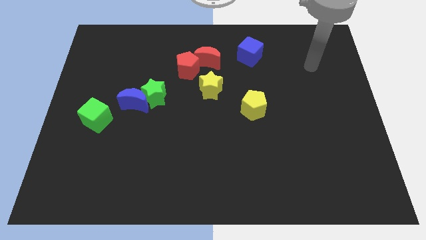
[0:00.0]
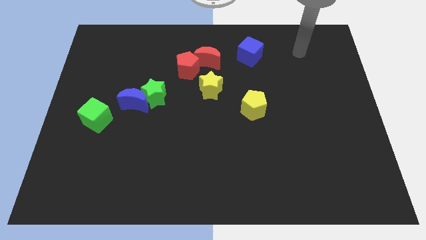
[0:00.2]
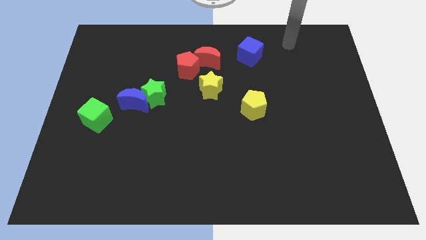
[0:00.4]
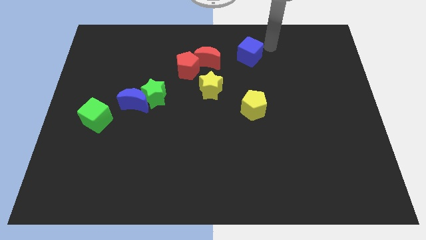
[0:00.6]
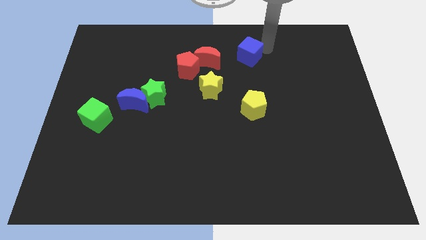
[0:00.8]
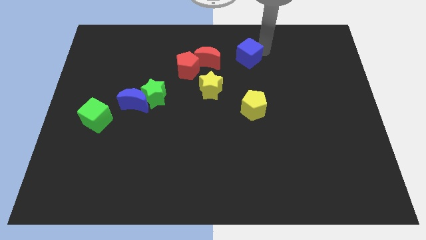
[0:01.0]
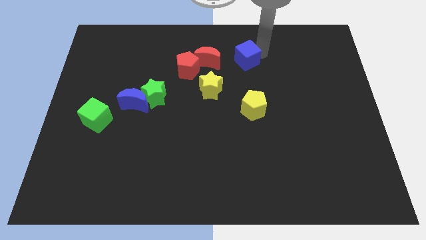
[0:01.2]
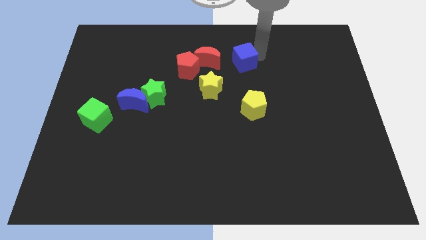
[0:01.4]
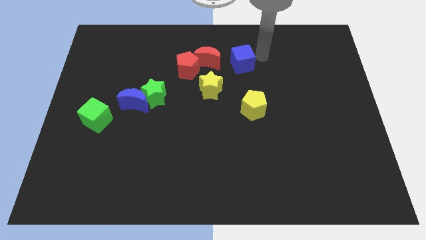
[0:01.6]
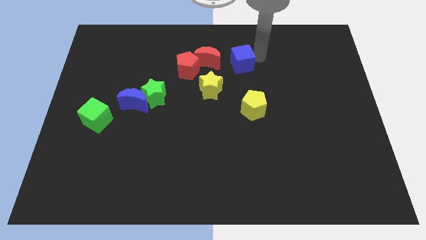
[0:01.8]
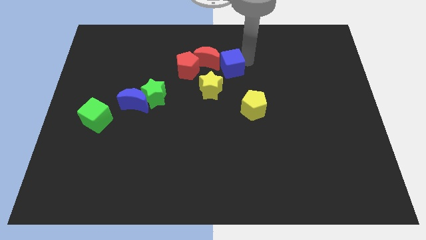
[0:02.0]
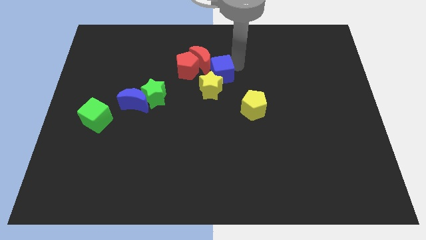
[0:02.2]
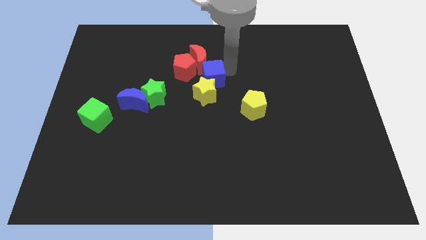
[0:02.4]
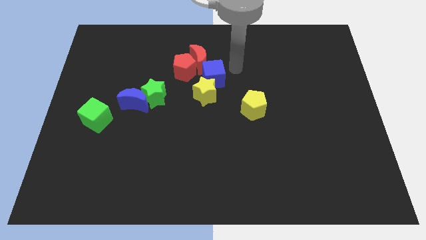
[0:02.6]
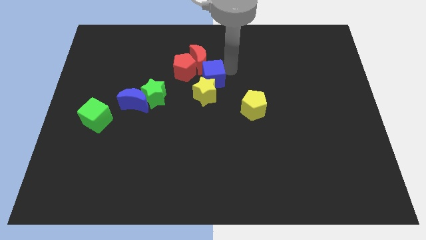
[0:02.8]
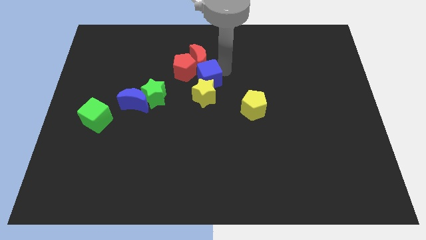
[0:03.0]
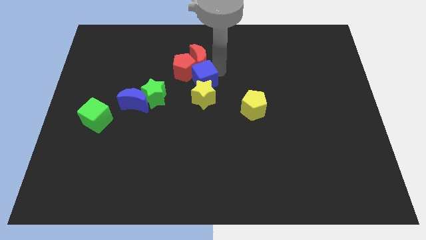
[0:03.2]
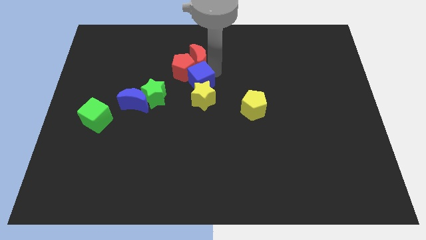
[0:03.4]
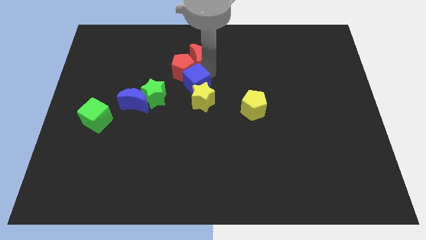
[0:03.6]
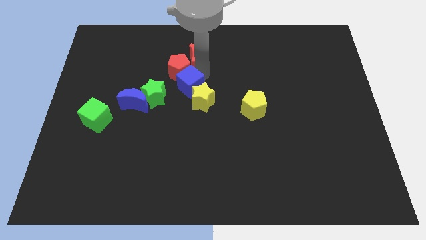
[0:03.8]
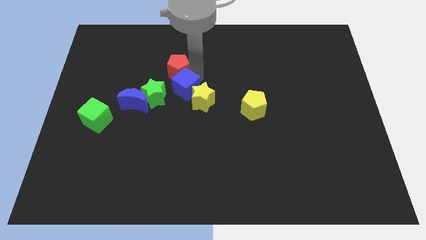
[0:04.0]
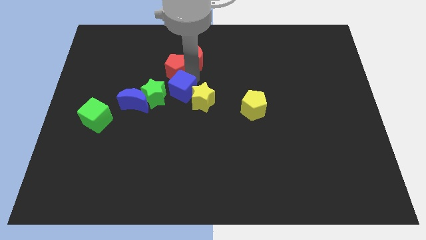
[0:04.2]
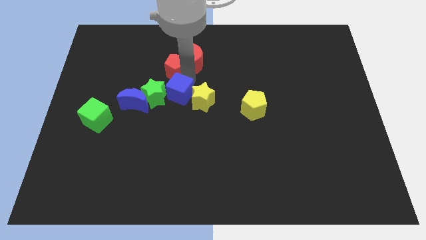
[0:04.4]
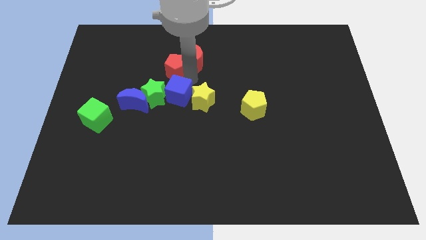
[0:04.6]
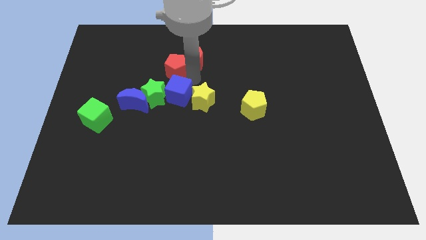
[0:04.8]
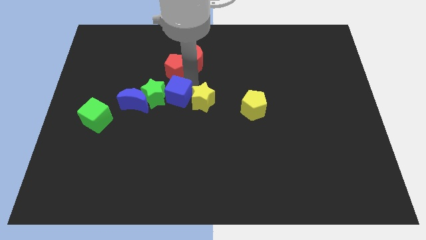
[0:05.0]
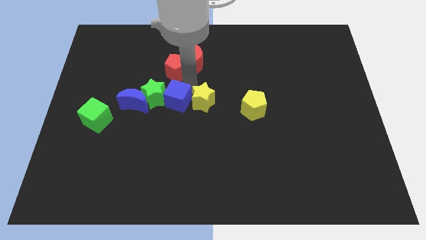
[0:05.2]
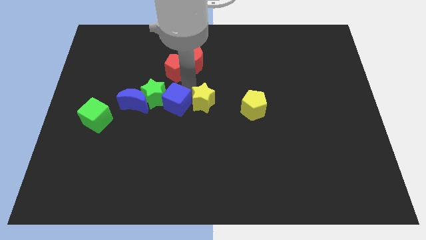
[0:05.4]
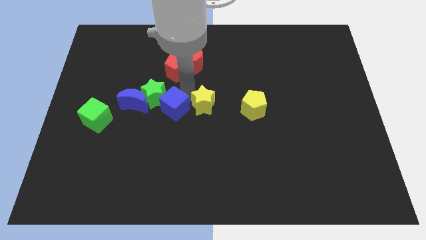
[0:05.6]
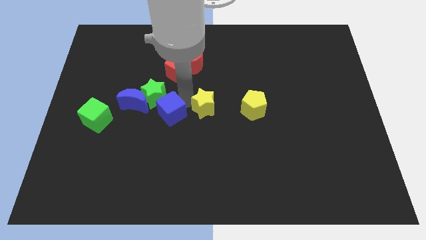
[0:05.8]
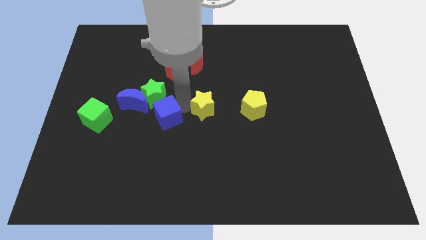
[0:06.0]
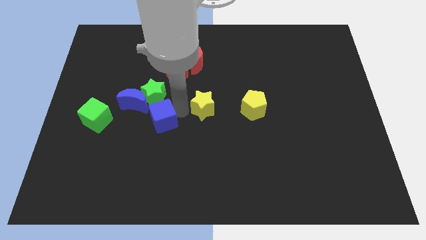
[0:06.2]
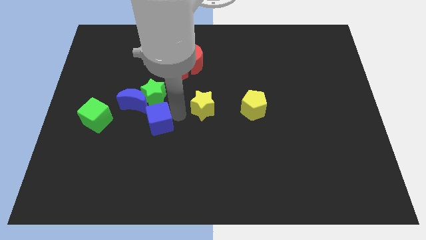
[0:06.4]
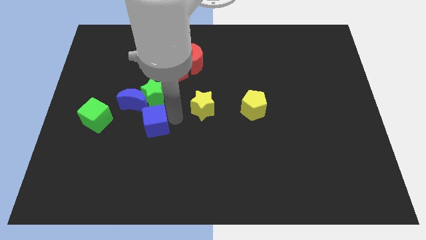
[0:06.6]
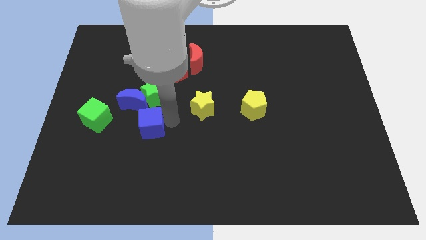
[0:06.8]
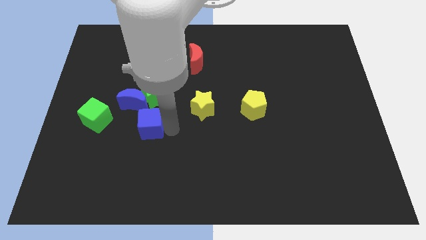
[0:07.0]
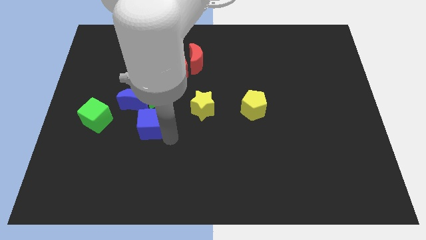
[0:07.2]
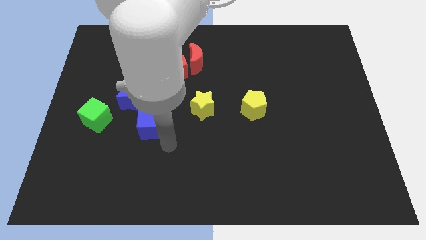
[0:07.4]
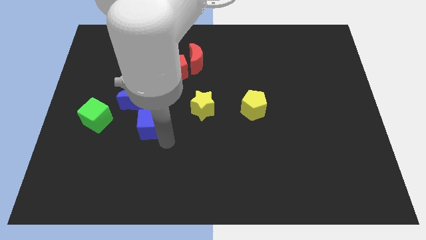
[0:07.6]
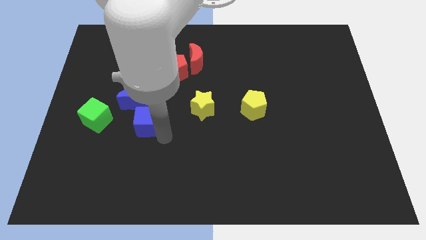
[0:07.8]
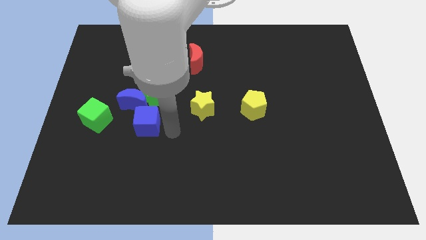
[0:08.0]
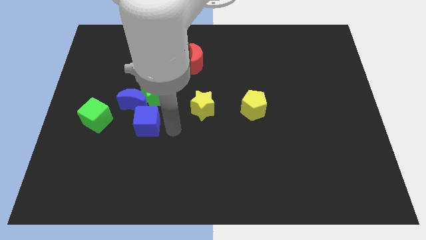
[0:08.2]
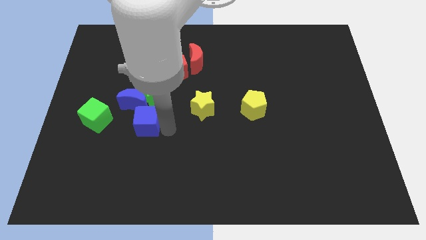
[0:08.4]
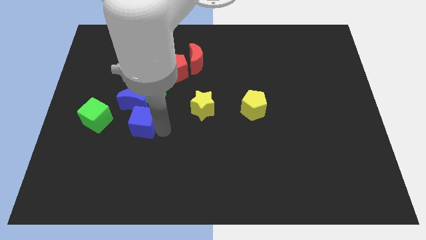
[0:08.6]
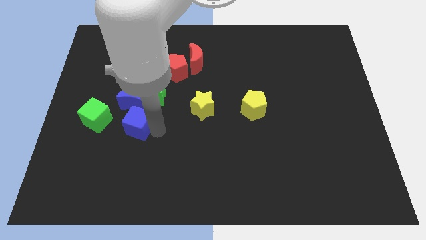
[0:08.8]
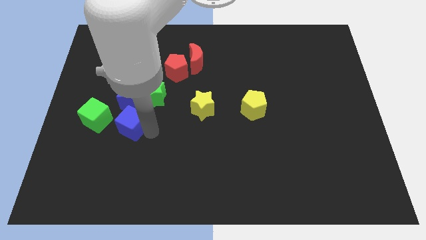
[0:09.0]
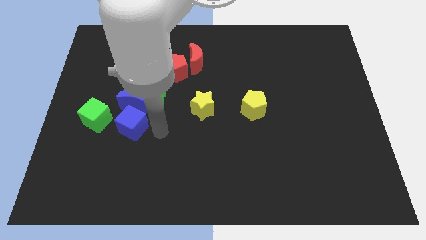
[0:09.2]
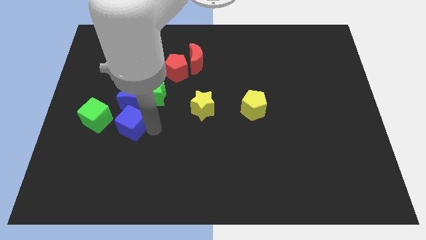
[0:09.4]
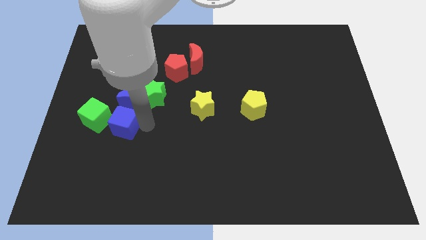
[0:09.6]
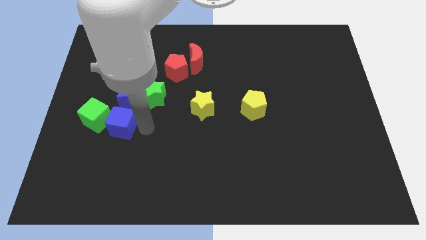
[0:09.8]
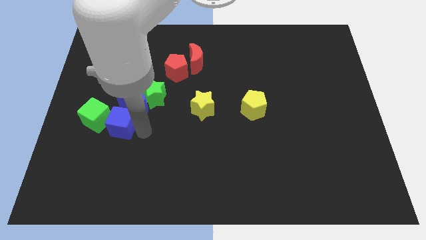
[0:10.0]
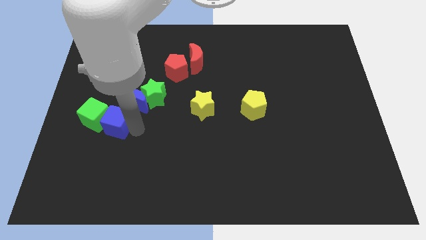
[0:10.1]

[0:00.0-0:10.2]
put the blue cube to the green cube

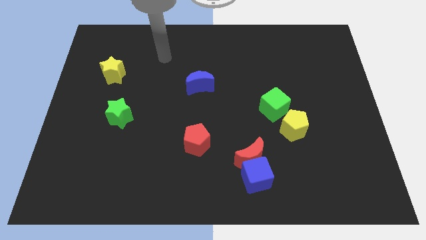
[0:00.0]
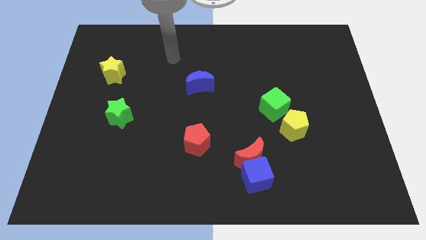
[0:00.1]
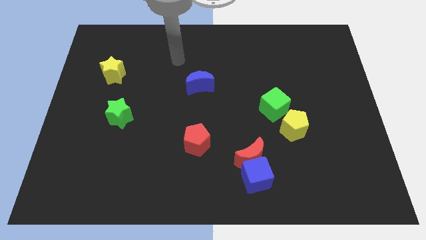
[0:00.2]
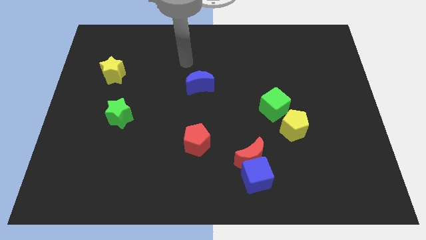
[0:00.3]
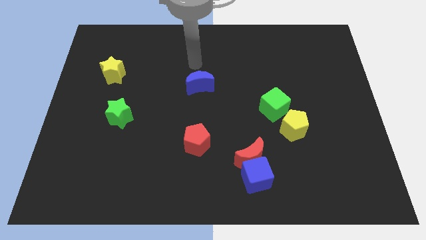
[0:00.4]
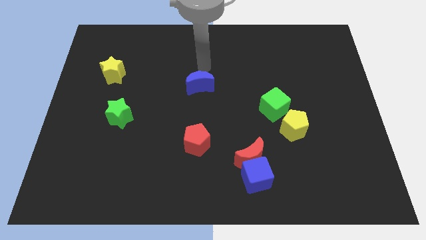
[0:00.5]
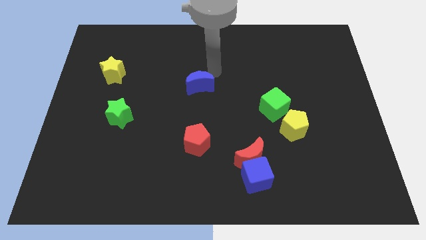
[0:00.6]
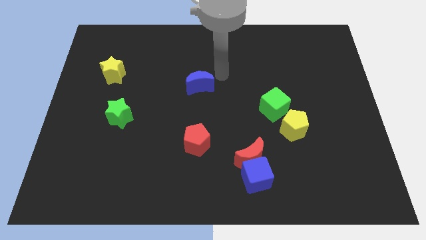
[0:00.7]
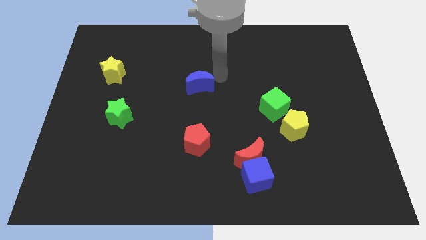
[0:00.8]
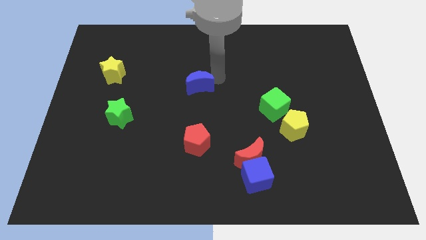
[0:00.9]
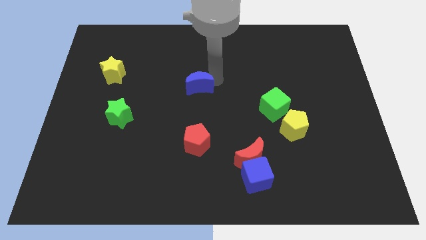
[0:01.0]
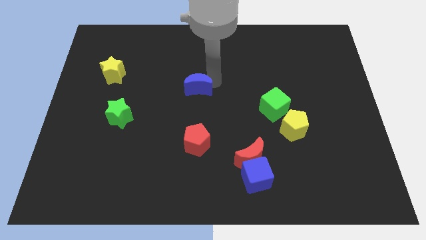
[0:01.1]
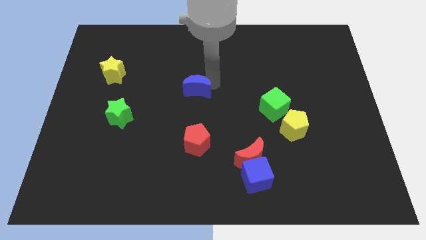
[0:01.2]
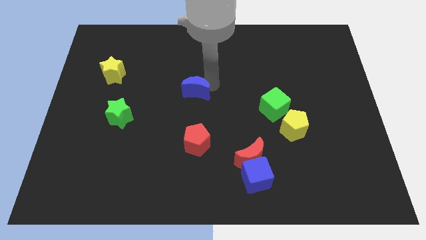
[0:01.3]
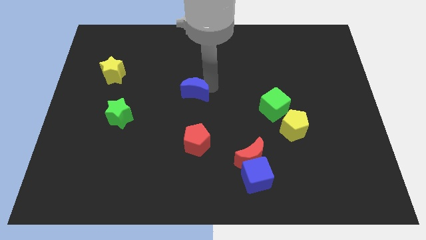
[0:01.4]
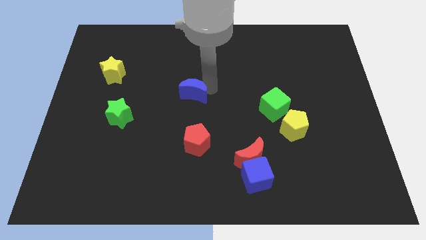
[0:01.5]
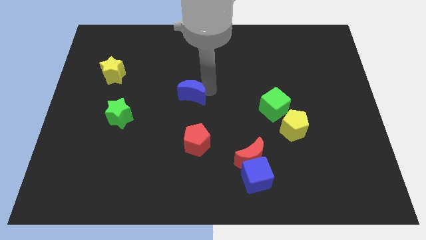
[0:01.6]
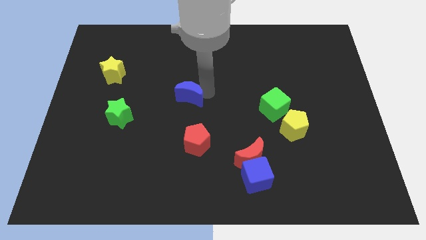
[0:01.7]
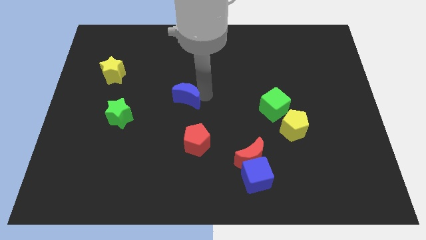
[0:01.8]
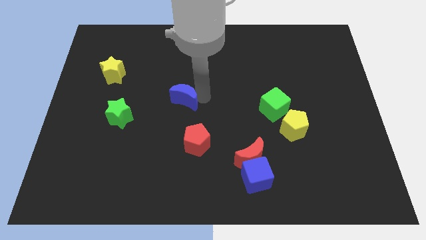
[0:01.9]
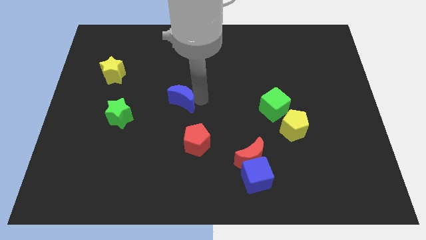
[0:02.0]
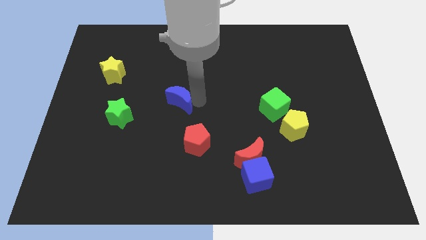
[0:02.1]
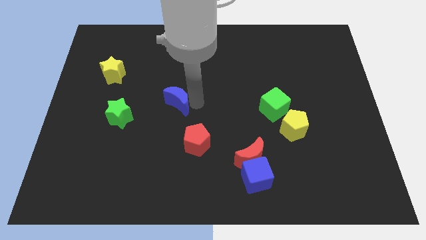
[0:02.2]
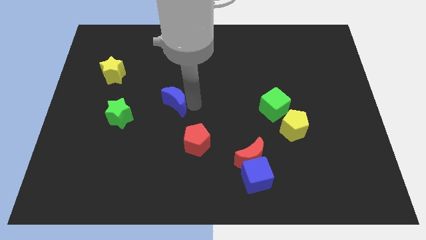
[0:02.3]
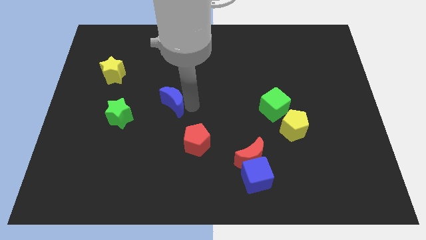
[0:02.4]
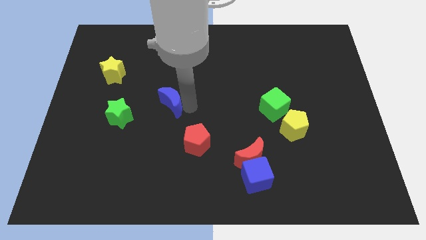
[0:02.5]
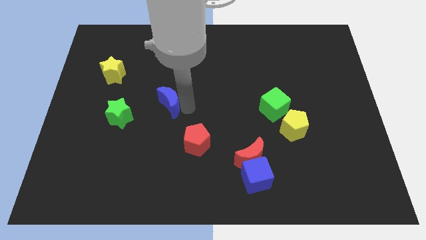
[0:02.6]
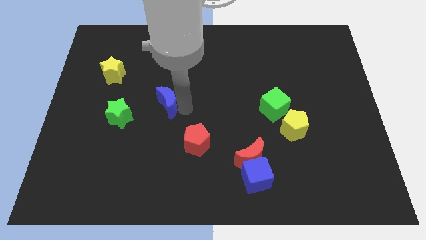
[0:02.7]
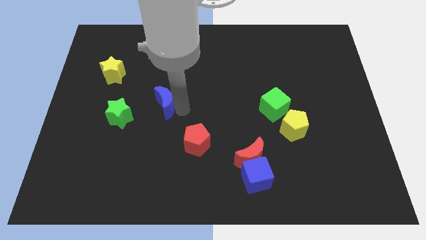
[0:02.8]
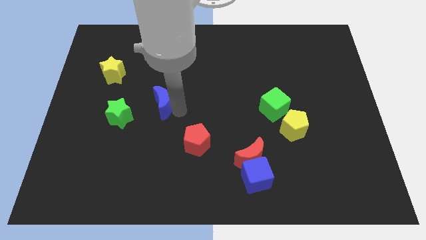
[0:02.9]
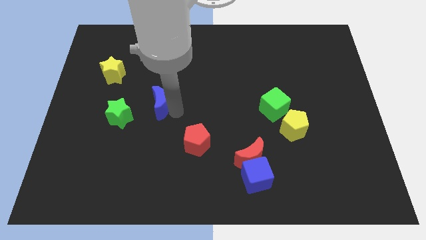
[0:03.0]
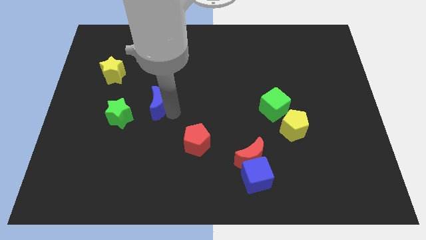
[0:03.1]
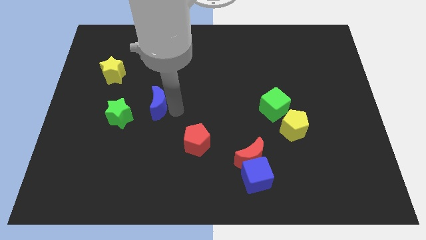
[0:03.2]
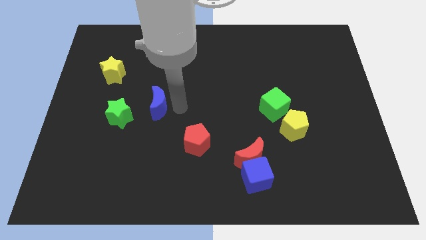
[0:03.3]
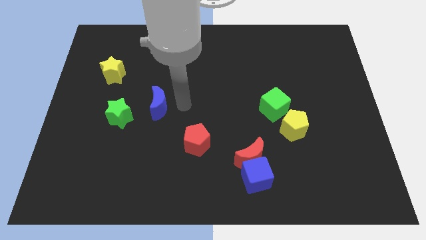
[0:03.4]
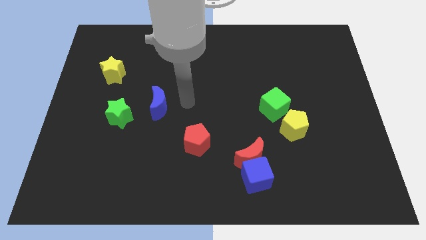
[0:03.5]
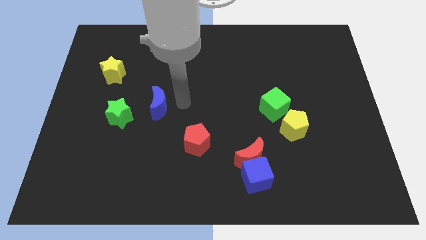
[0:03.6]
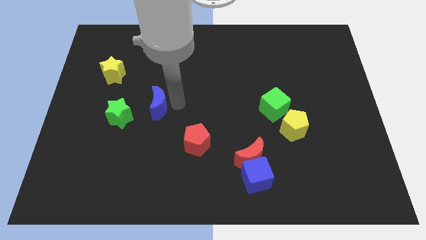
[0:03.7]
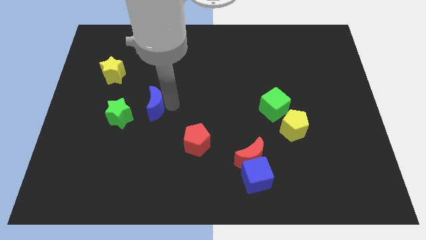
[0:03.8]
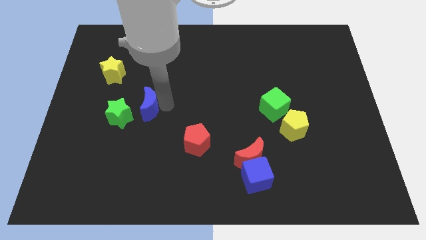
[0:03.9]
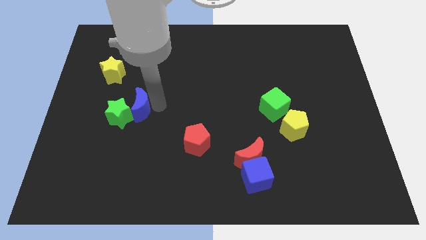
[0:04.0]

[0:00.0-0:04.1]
slide the blue moon close to the green star
